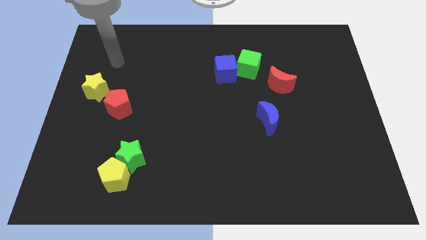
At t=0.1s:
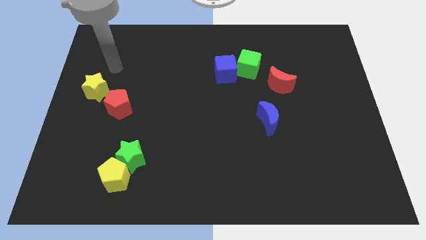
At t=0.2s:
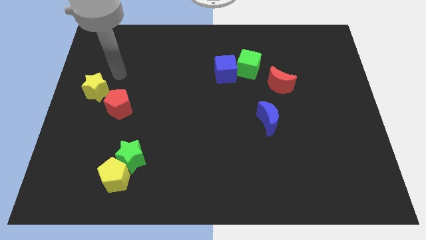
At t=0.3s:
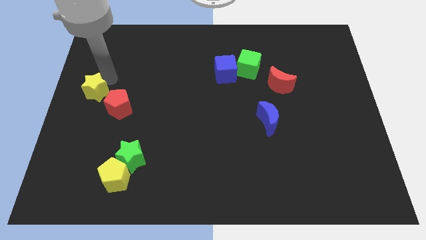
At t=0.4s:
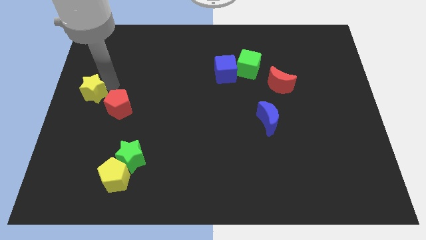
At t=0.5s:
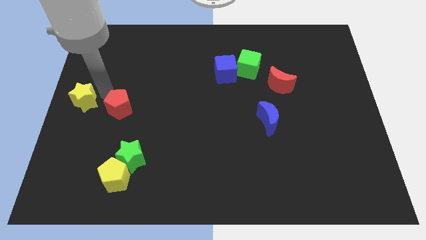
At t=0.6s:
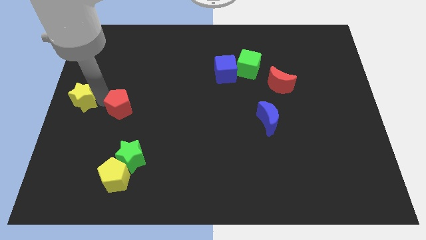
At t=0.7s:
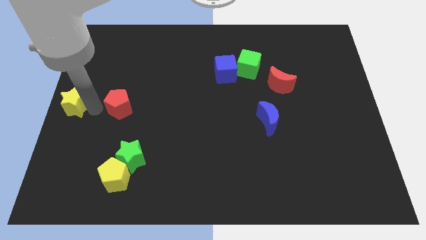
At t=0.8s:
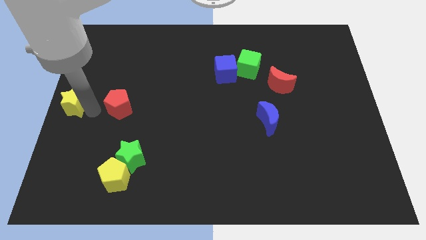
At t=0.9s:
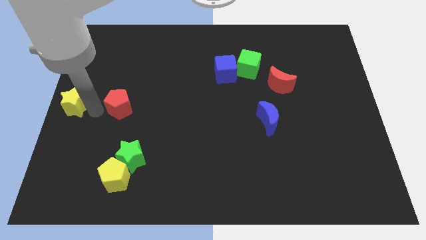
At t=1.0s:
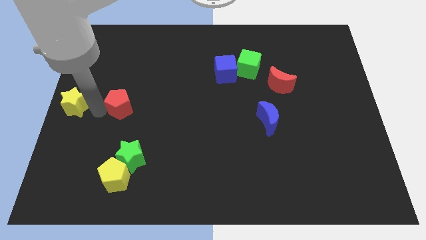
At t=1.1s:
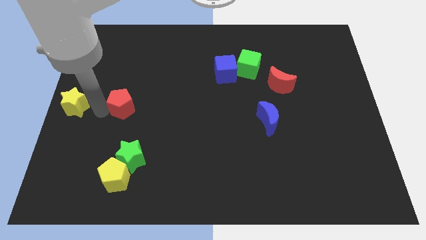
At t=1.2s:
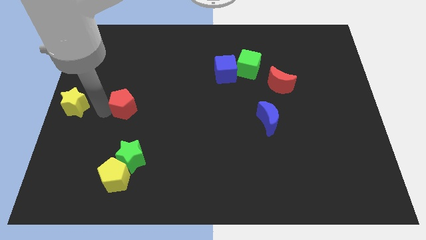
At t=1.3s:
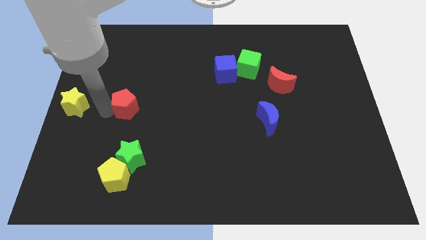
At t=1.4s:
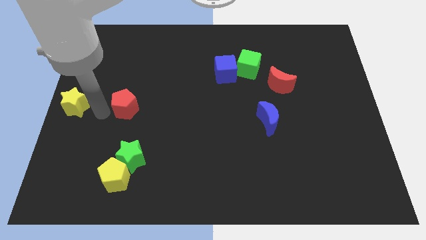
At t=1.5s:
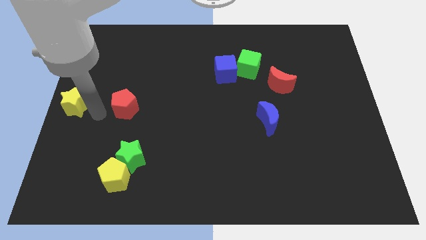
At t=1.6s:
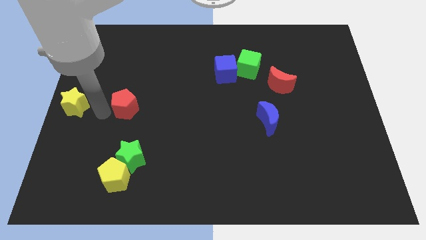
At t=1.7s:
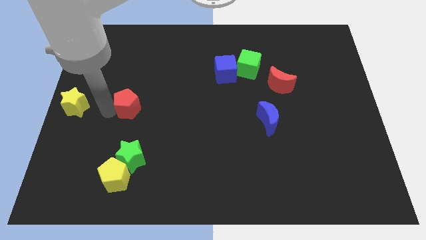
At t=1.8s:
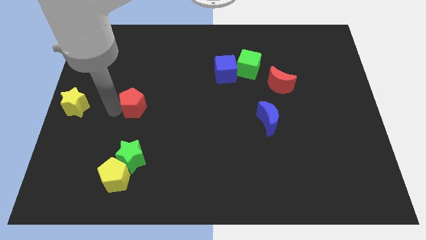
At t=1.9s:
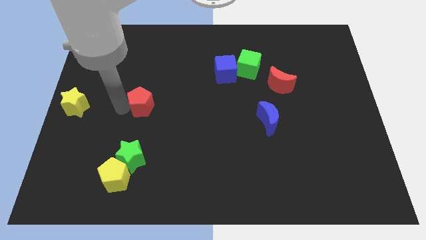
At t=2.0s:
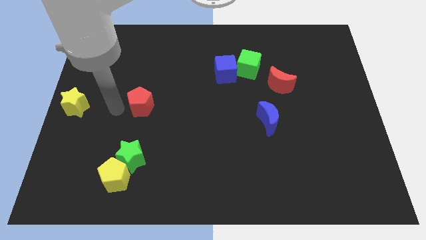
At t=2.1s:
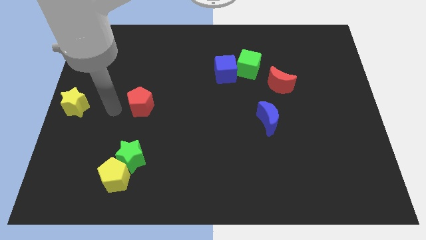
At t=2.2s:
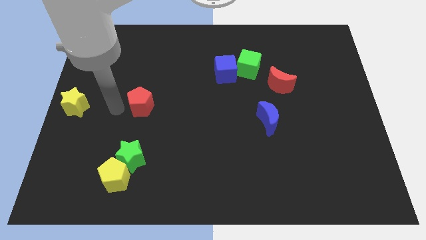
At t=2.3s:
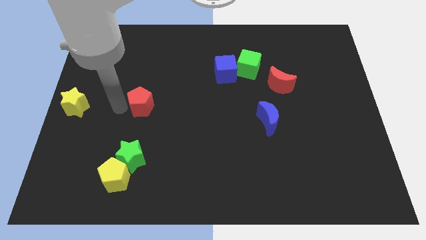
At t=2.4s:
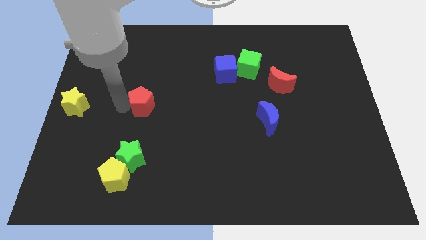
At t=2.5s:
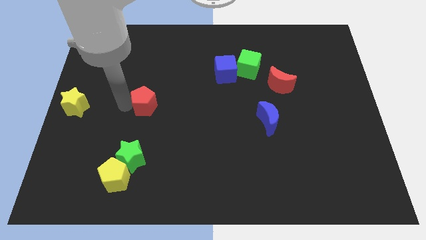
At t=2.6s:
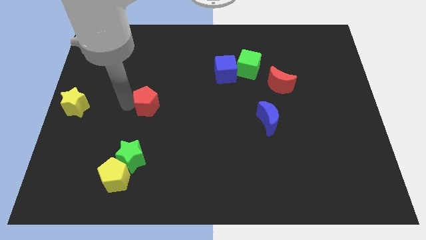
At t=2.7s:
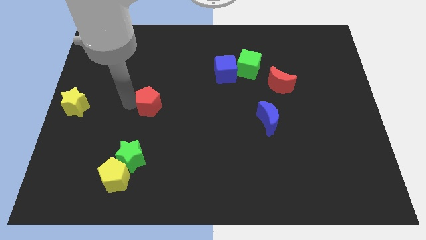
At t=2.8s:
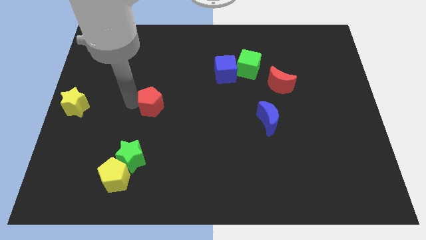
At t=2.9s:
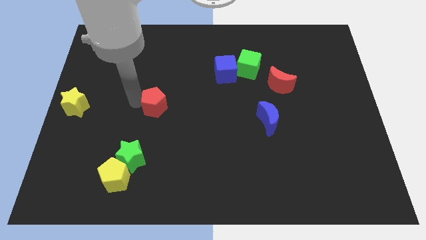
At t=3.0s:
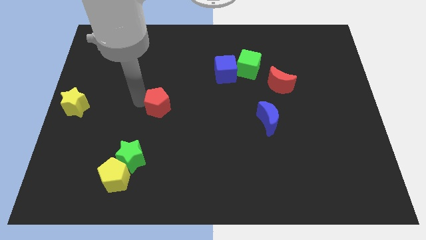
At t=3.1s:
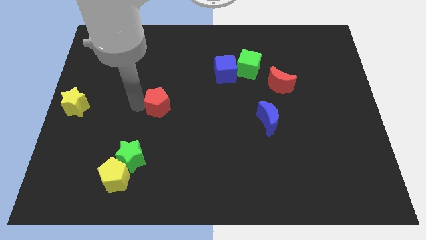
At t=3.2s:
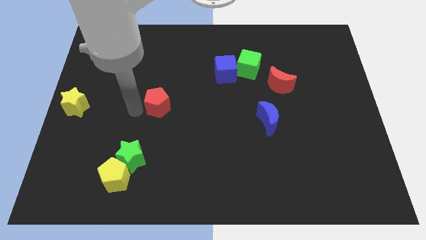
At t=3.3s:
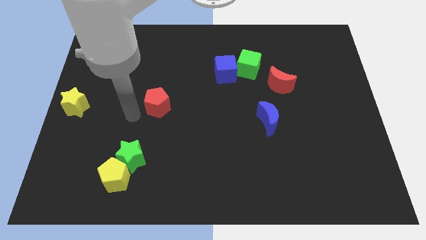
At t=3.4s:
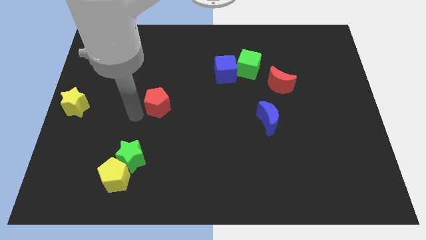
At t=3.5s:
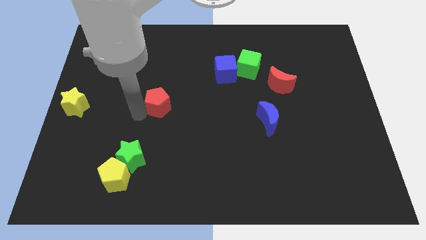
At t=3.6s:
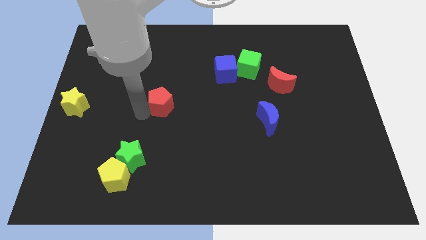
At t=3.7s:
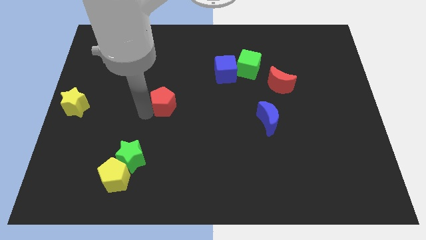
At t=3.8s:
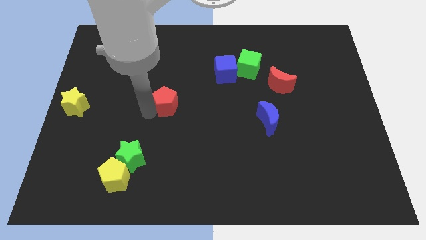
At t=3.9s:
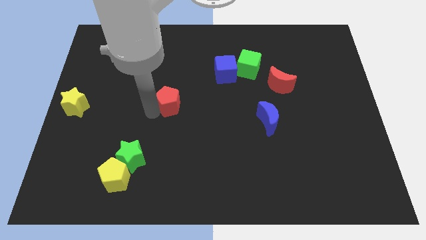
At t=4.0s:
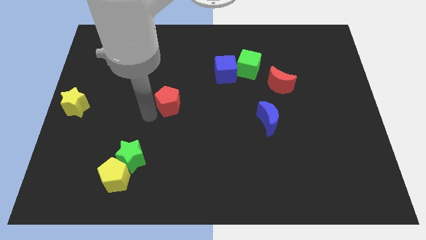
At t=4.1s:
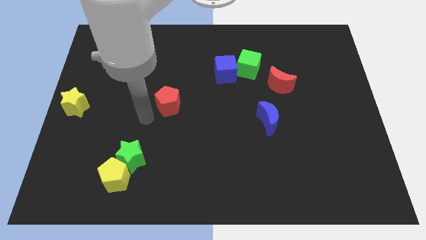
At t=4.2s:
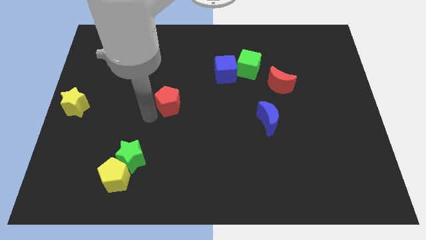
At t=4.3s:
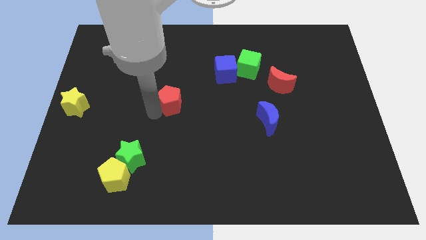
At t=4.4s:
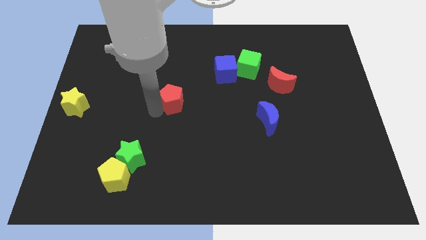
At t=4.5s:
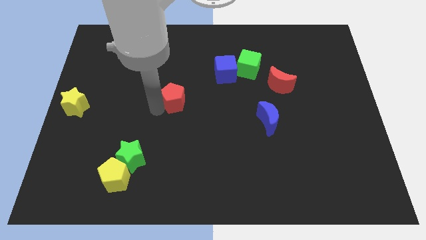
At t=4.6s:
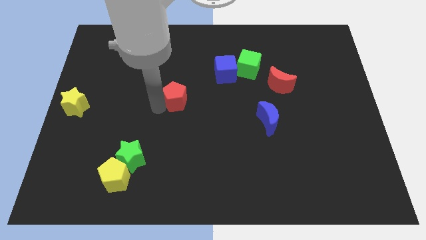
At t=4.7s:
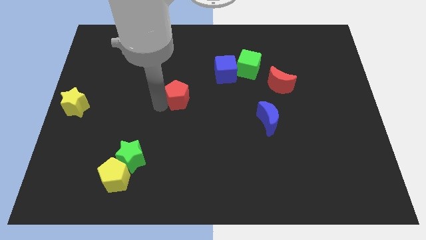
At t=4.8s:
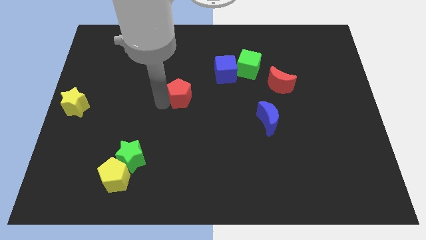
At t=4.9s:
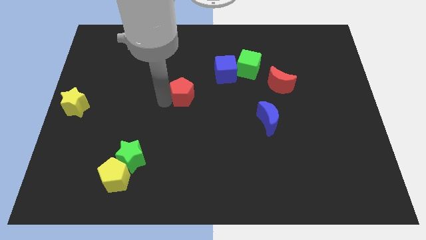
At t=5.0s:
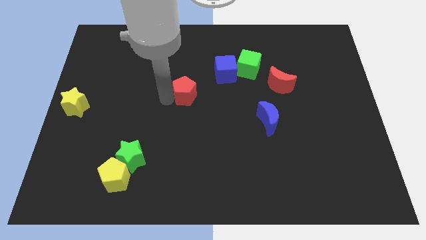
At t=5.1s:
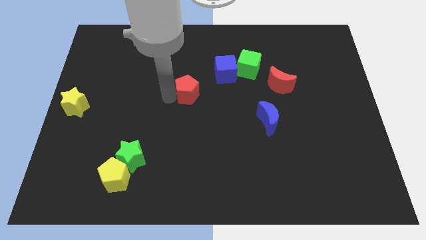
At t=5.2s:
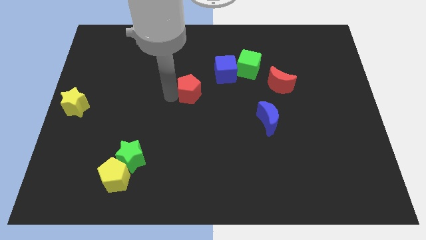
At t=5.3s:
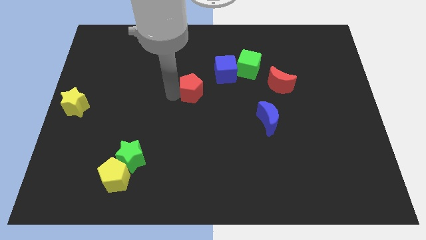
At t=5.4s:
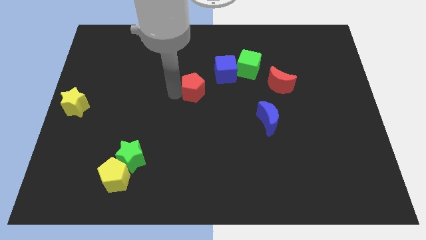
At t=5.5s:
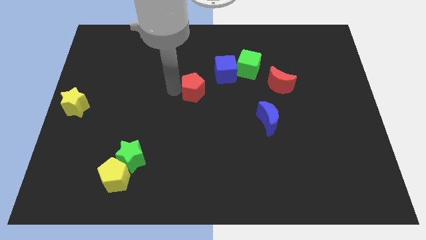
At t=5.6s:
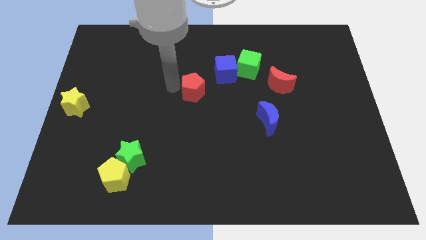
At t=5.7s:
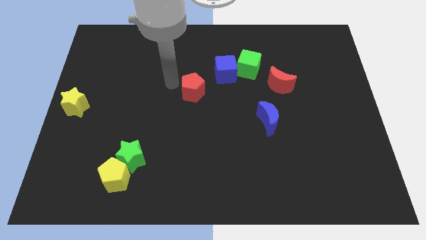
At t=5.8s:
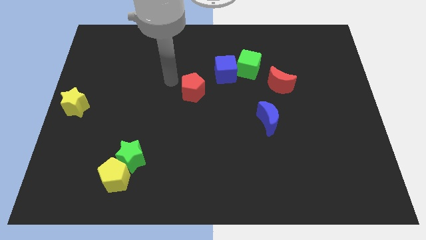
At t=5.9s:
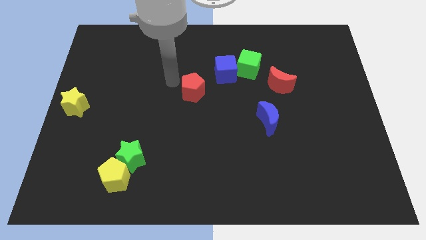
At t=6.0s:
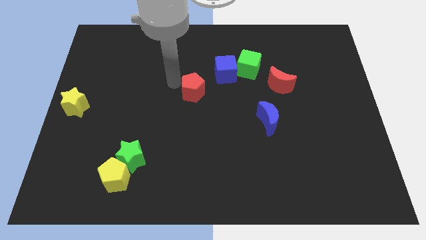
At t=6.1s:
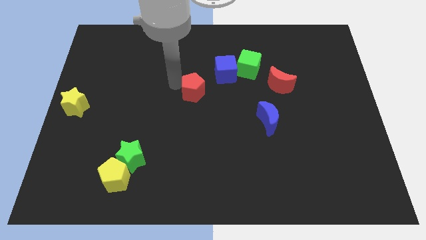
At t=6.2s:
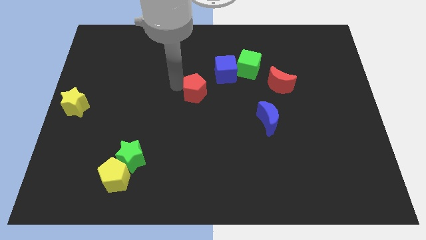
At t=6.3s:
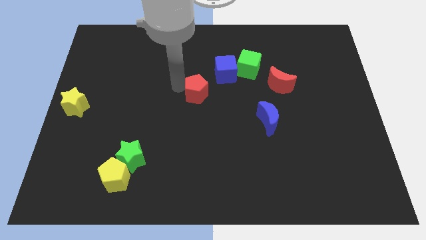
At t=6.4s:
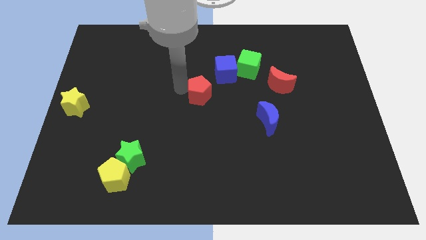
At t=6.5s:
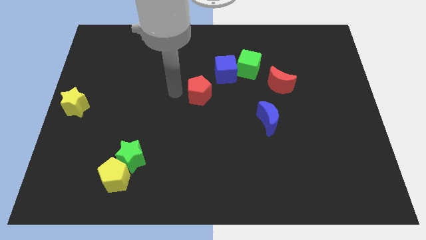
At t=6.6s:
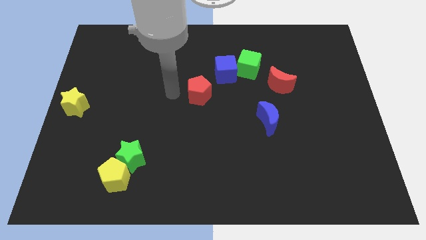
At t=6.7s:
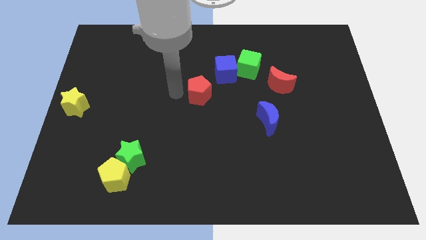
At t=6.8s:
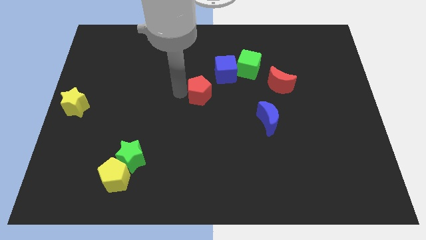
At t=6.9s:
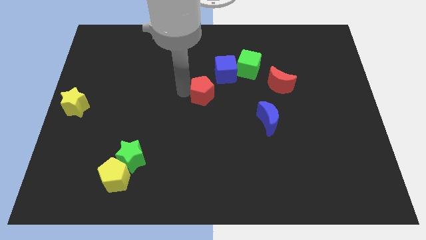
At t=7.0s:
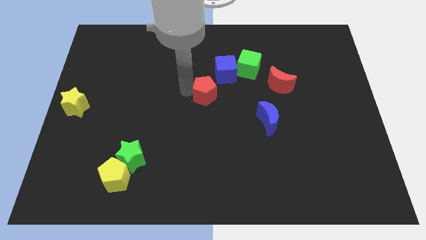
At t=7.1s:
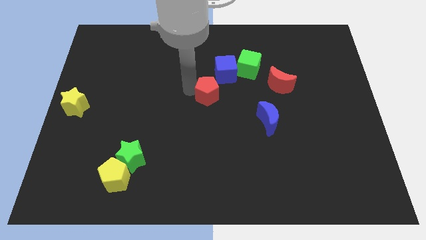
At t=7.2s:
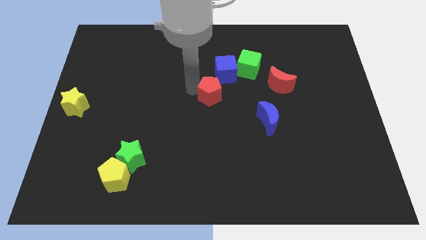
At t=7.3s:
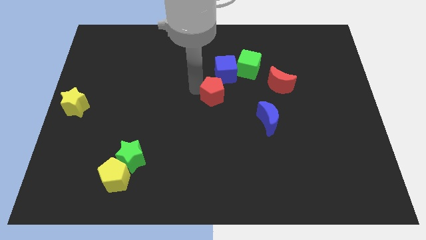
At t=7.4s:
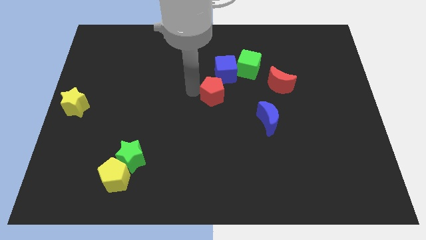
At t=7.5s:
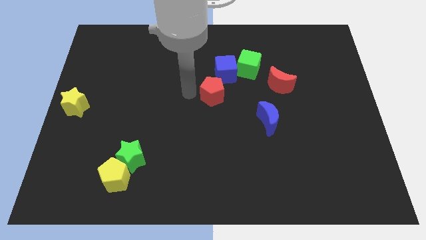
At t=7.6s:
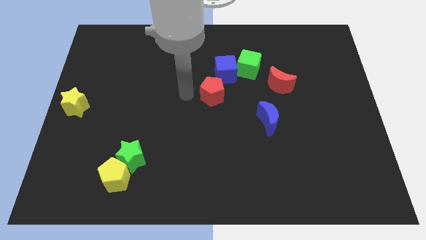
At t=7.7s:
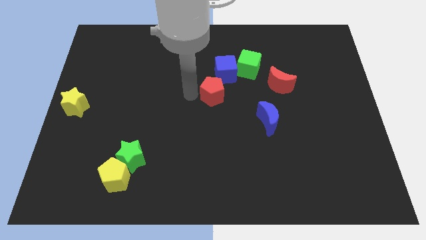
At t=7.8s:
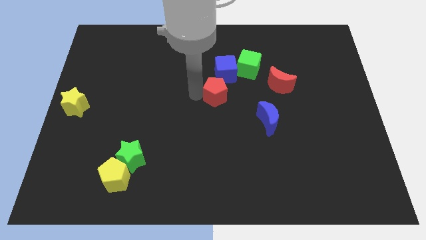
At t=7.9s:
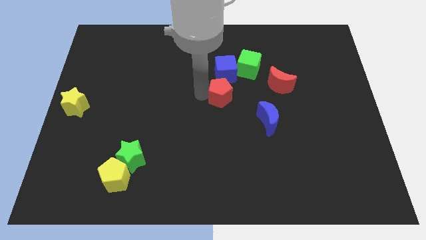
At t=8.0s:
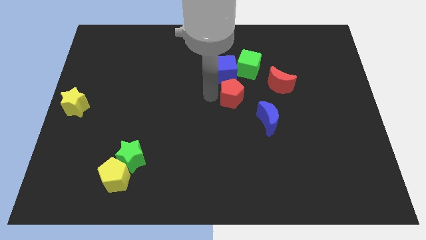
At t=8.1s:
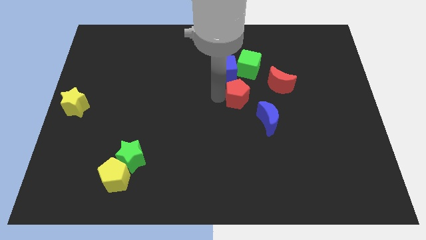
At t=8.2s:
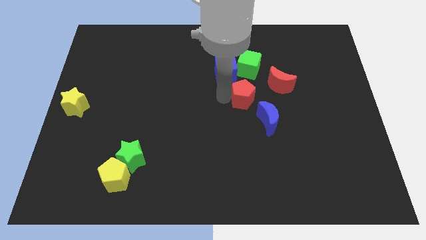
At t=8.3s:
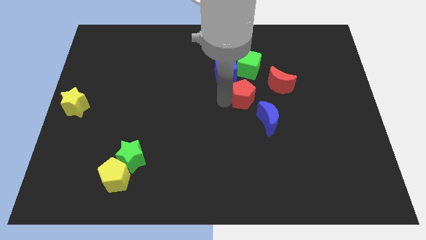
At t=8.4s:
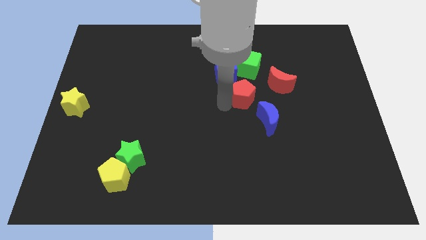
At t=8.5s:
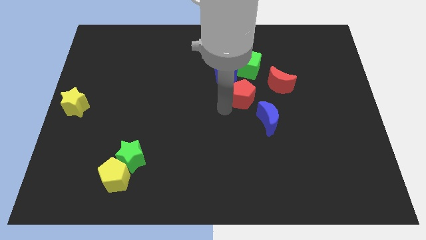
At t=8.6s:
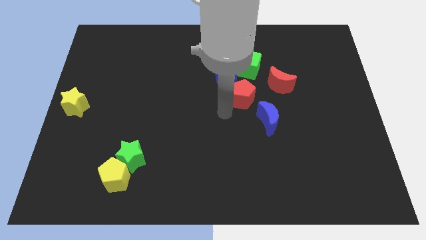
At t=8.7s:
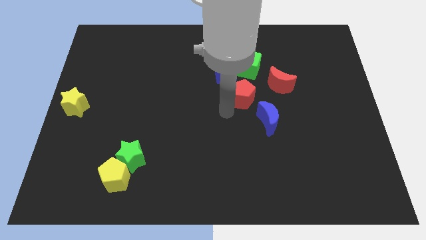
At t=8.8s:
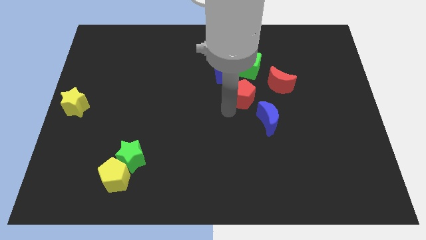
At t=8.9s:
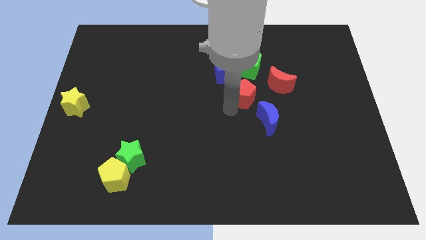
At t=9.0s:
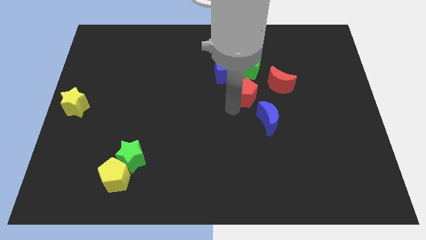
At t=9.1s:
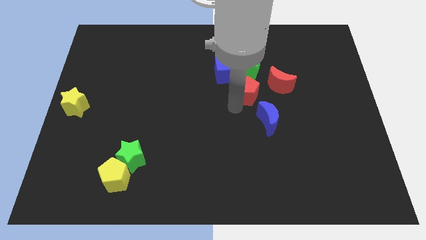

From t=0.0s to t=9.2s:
put the red pentagon to the top side of the blue moon
